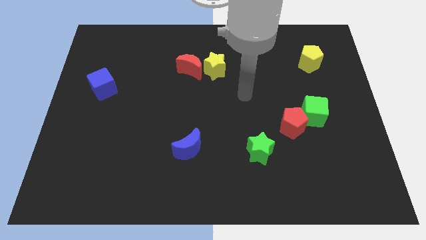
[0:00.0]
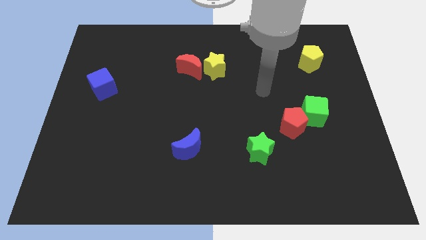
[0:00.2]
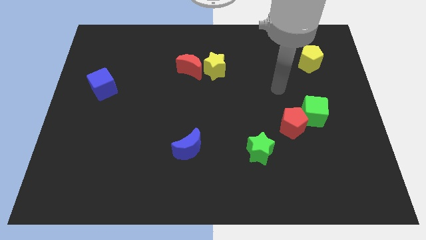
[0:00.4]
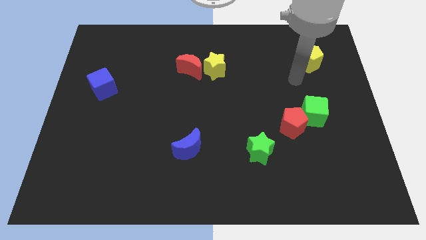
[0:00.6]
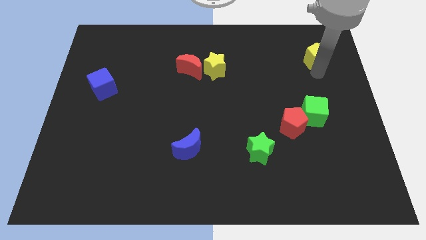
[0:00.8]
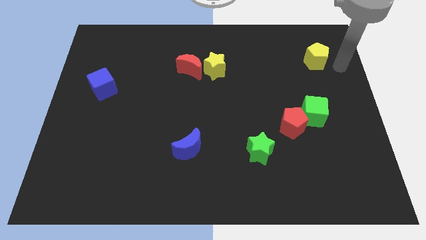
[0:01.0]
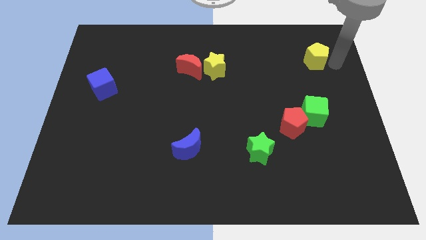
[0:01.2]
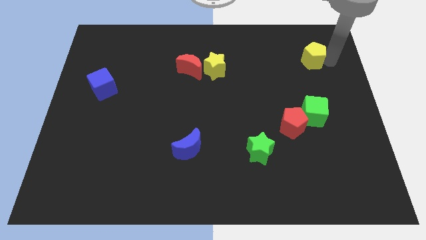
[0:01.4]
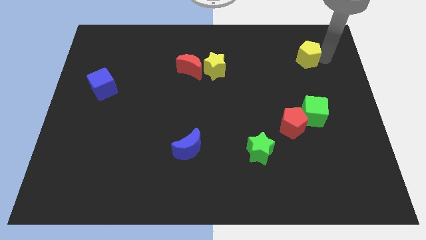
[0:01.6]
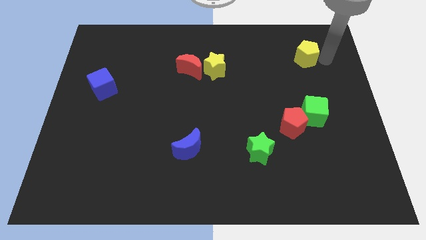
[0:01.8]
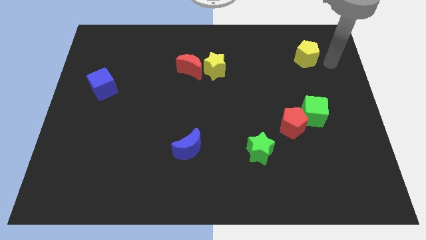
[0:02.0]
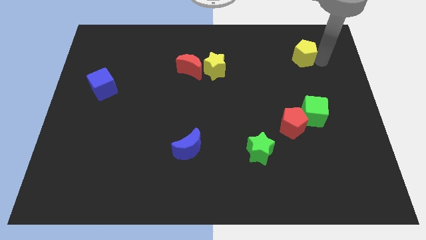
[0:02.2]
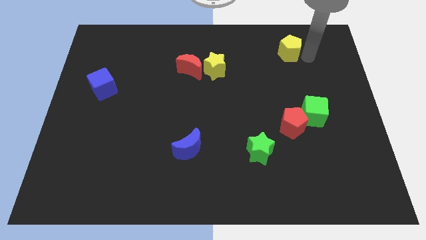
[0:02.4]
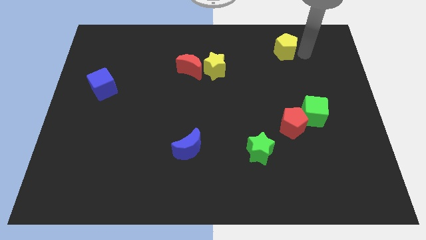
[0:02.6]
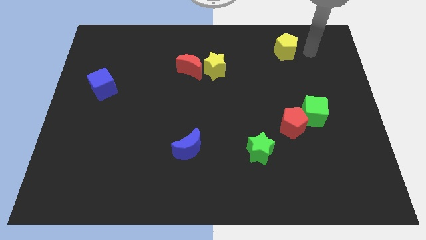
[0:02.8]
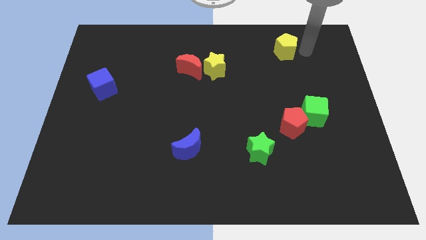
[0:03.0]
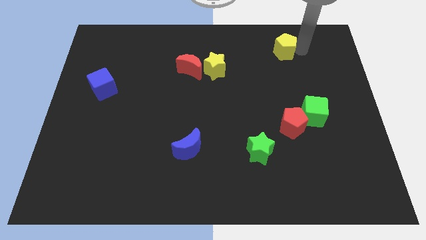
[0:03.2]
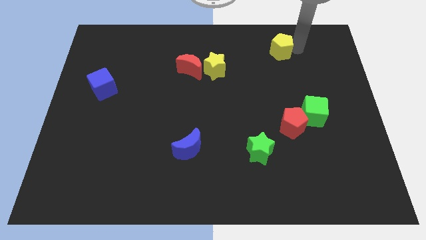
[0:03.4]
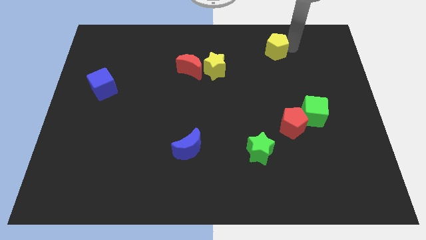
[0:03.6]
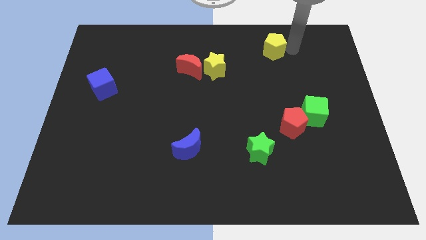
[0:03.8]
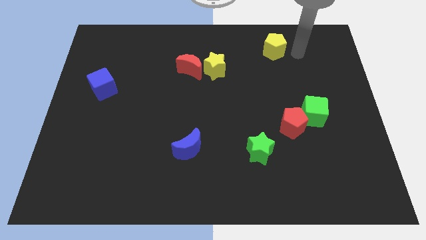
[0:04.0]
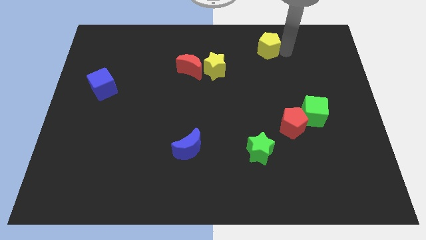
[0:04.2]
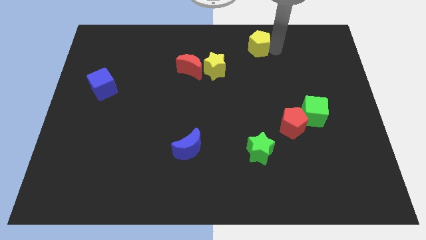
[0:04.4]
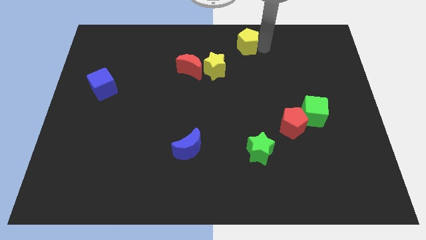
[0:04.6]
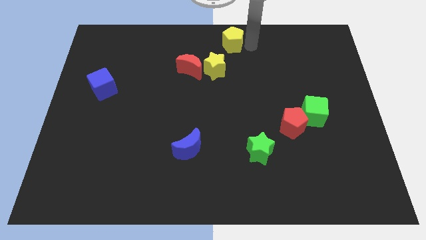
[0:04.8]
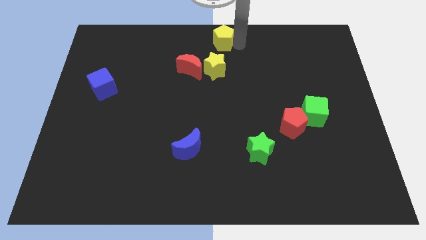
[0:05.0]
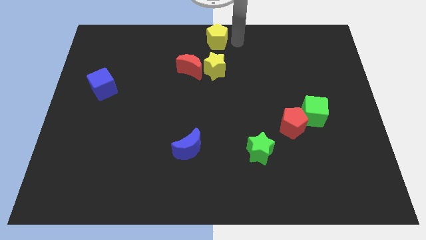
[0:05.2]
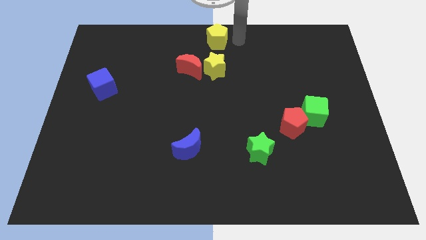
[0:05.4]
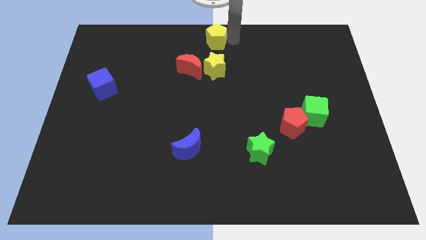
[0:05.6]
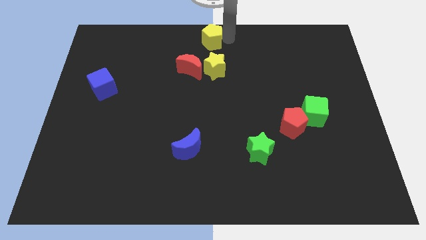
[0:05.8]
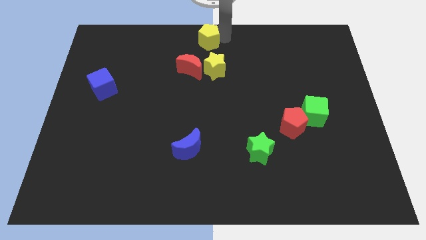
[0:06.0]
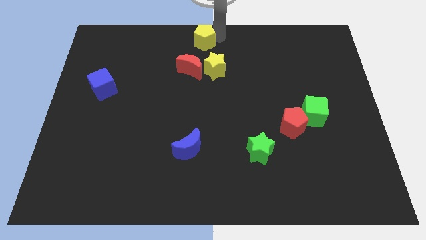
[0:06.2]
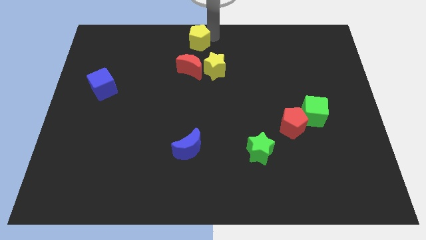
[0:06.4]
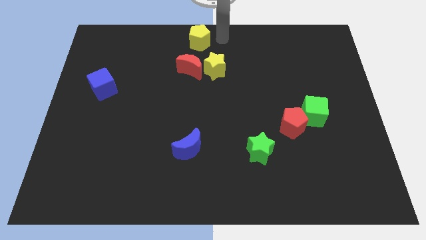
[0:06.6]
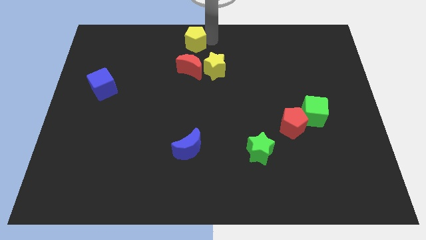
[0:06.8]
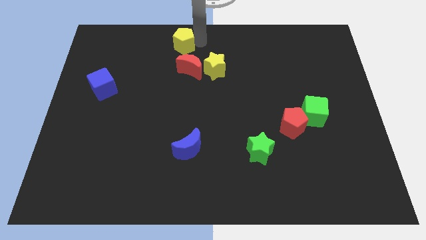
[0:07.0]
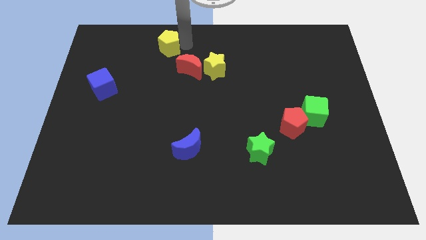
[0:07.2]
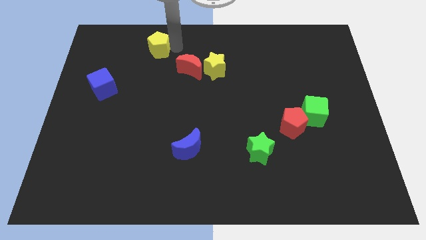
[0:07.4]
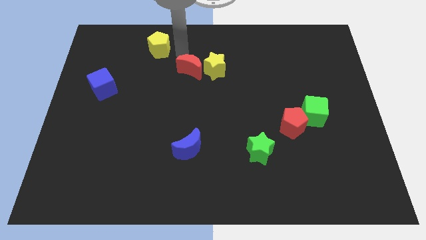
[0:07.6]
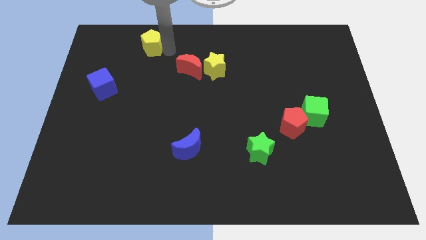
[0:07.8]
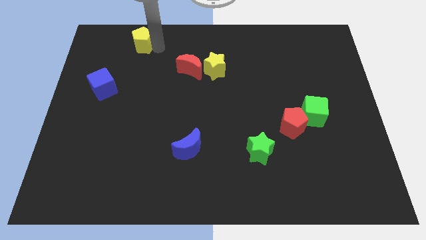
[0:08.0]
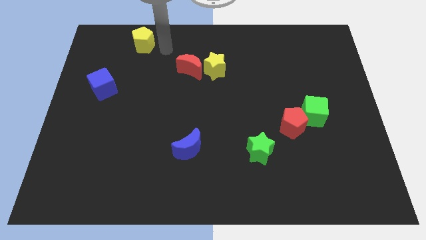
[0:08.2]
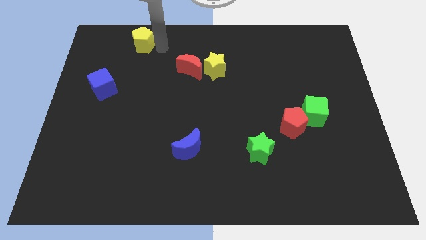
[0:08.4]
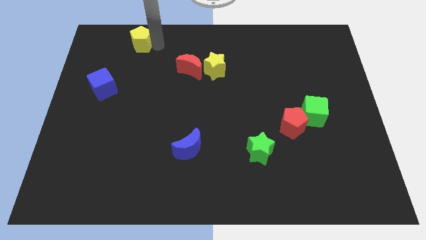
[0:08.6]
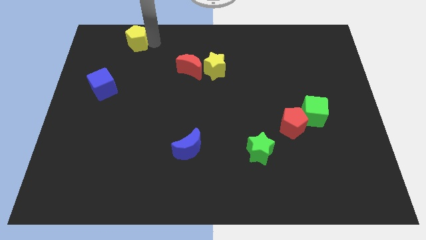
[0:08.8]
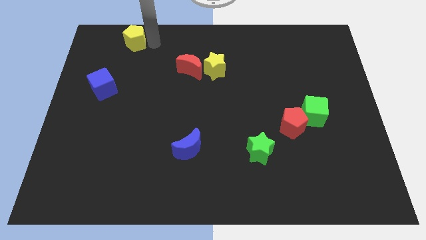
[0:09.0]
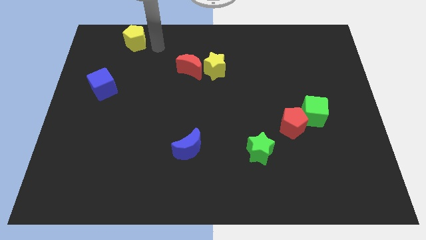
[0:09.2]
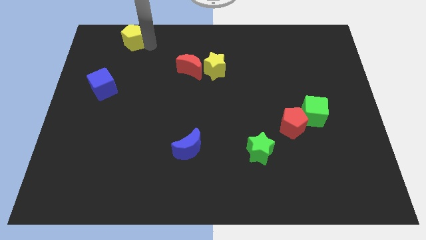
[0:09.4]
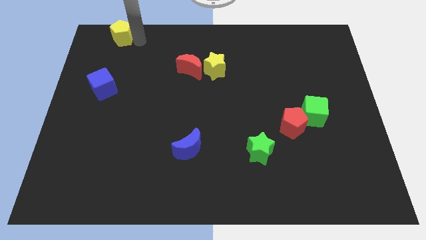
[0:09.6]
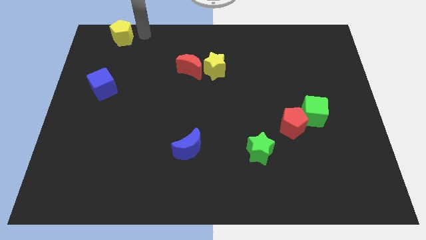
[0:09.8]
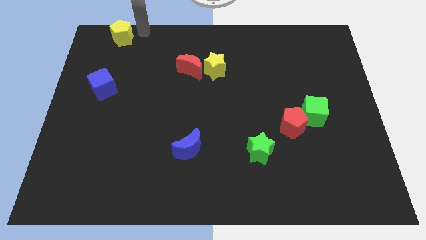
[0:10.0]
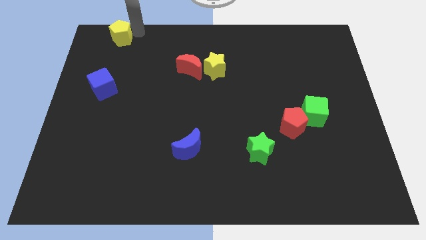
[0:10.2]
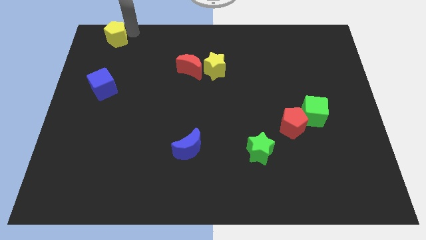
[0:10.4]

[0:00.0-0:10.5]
push the yellow pentagon to the top left corner

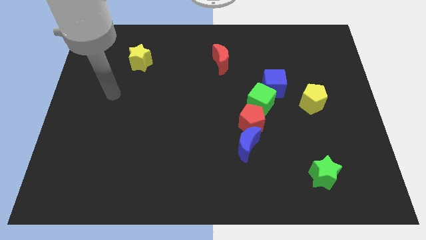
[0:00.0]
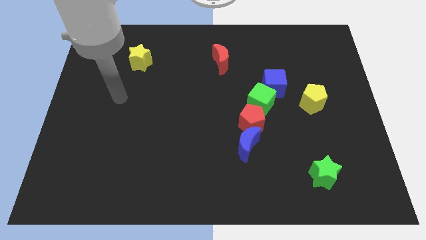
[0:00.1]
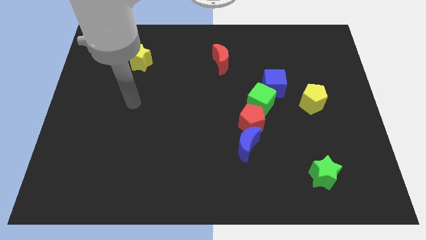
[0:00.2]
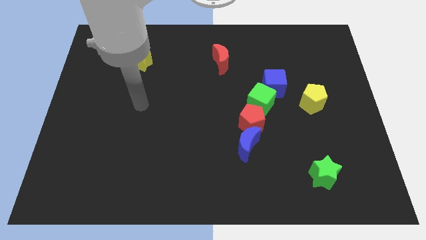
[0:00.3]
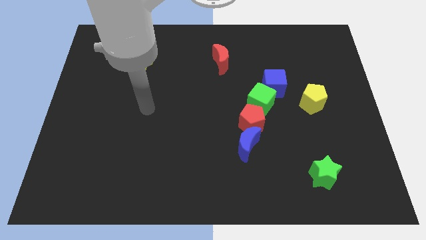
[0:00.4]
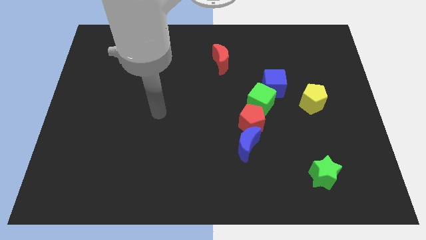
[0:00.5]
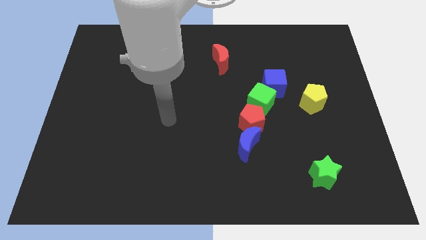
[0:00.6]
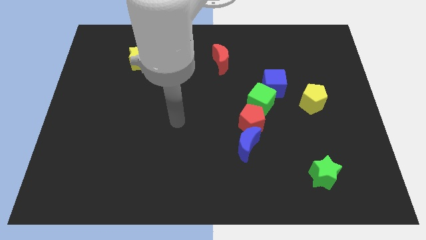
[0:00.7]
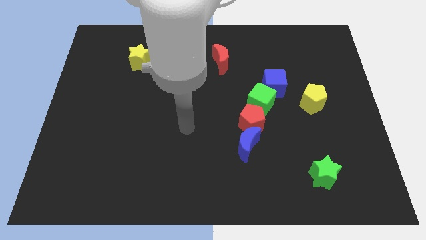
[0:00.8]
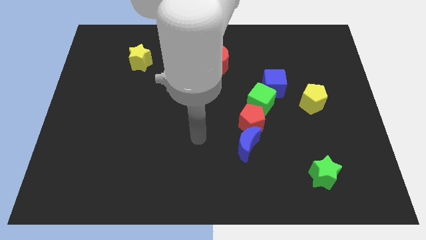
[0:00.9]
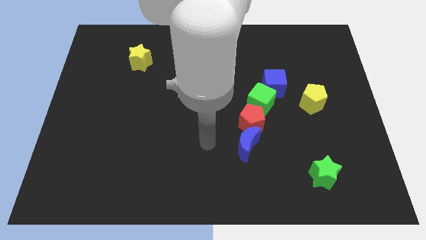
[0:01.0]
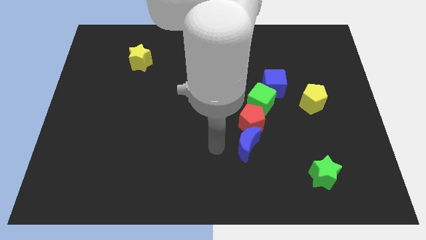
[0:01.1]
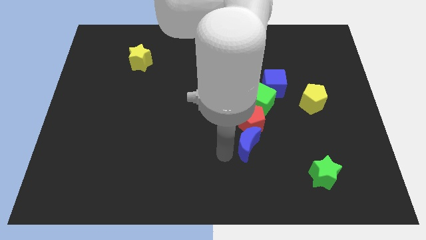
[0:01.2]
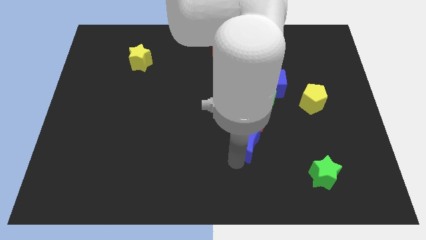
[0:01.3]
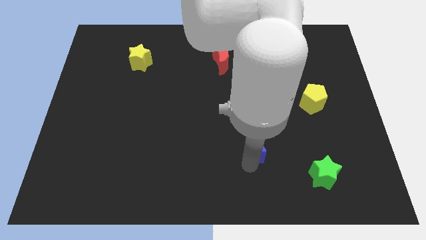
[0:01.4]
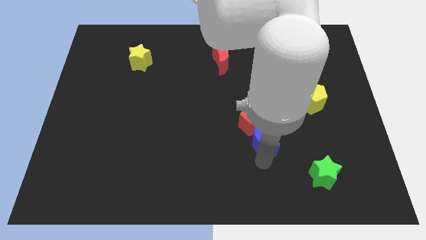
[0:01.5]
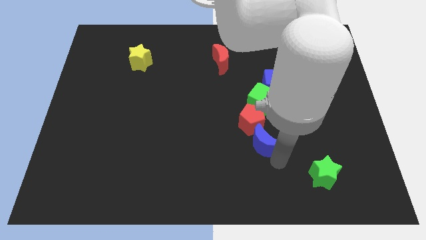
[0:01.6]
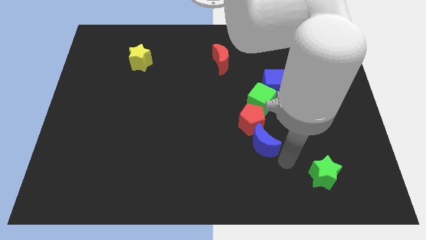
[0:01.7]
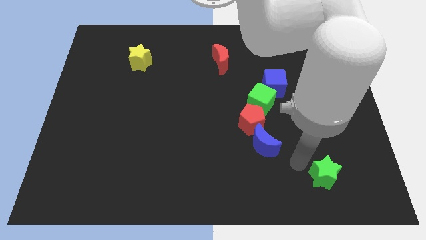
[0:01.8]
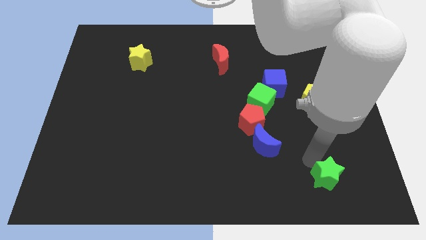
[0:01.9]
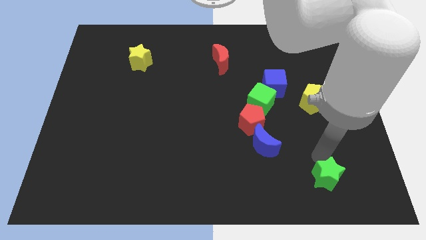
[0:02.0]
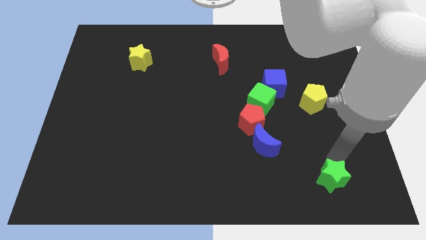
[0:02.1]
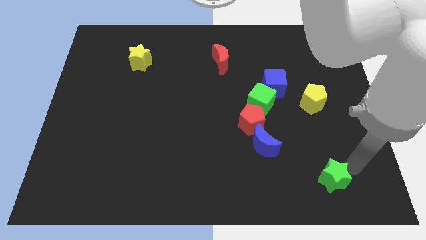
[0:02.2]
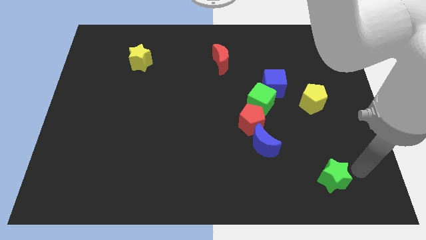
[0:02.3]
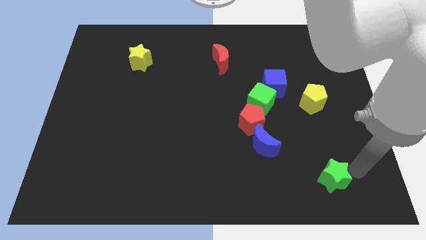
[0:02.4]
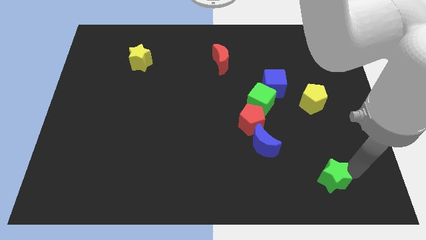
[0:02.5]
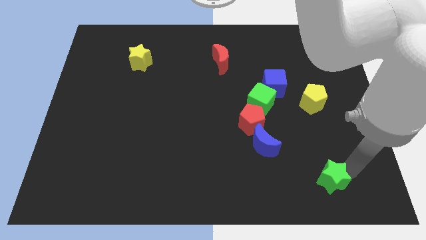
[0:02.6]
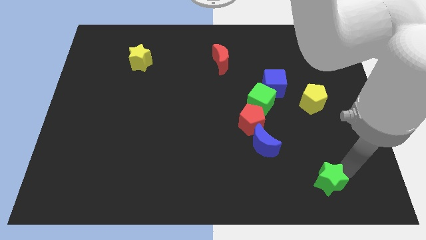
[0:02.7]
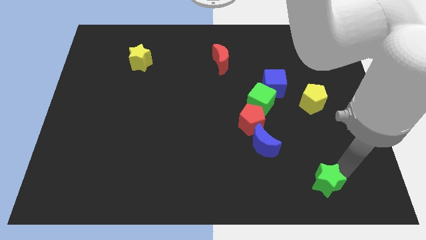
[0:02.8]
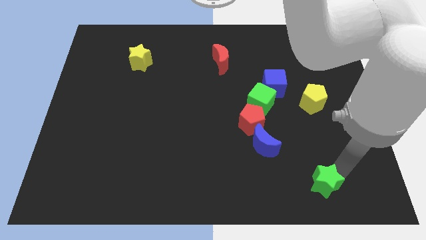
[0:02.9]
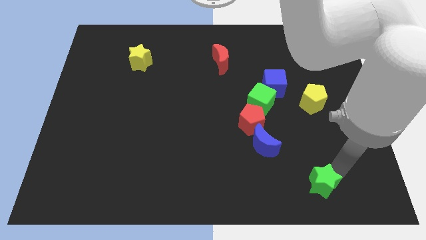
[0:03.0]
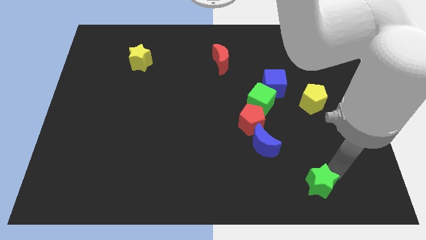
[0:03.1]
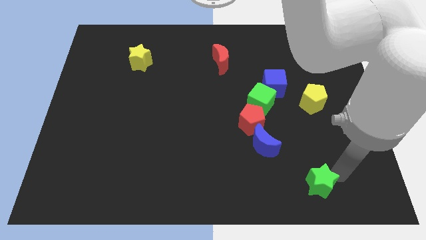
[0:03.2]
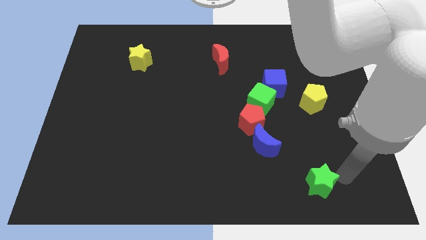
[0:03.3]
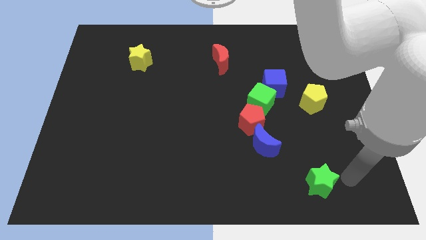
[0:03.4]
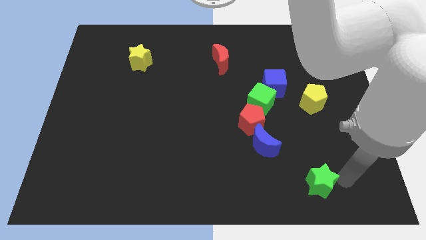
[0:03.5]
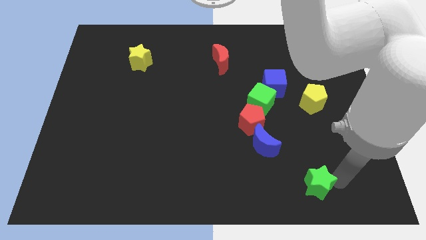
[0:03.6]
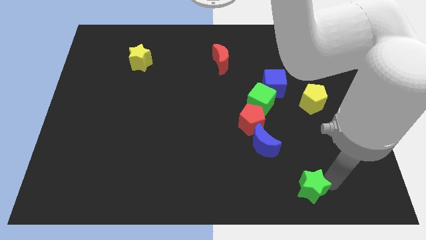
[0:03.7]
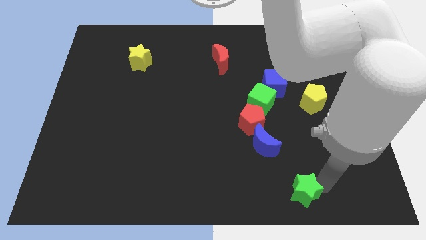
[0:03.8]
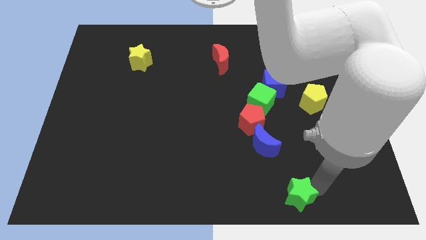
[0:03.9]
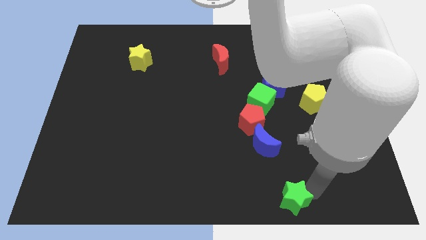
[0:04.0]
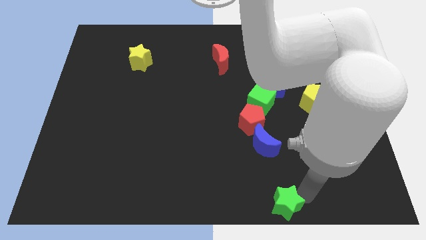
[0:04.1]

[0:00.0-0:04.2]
put the green star to the bottom side
